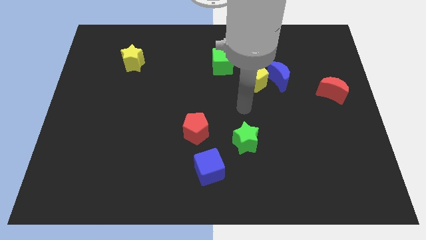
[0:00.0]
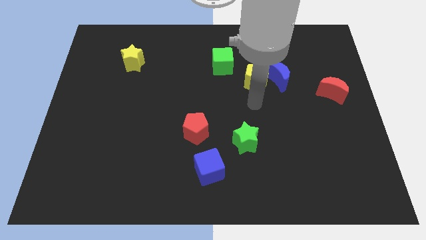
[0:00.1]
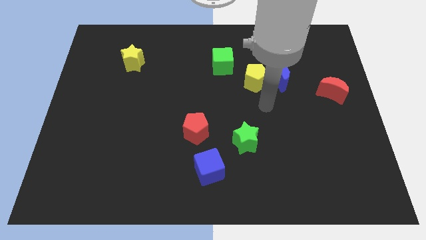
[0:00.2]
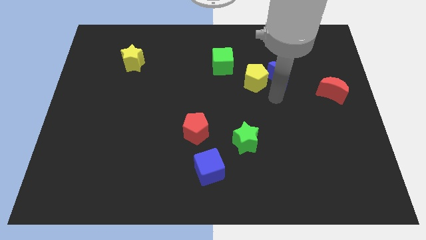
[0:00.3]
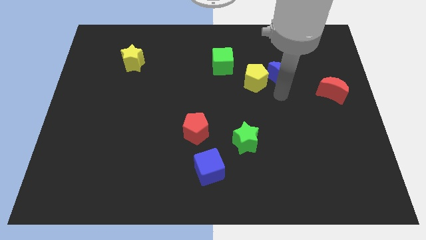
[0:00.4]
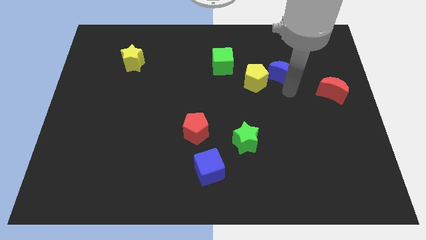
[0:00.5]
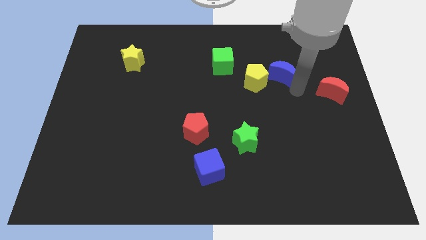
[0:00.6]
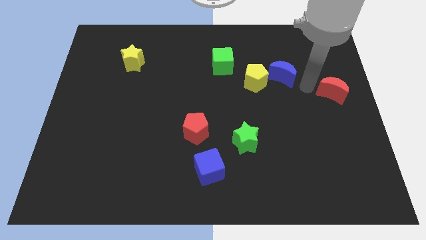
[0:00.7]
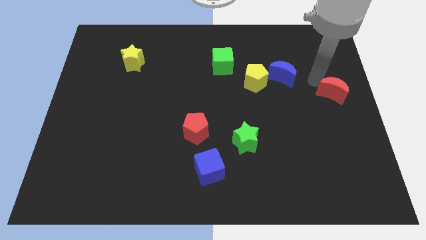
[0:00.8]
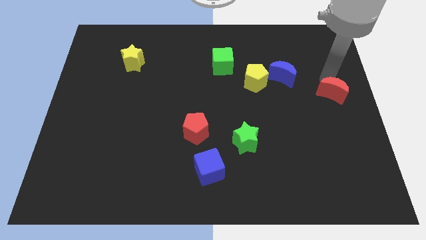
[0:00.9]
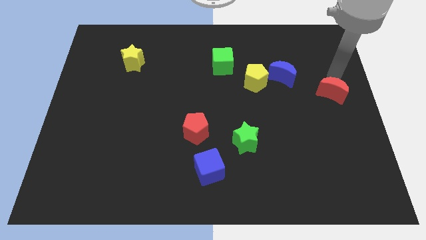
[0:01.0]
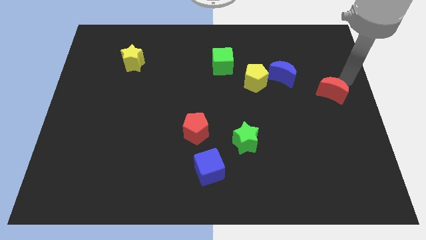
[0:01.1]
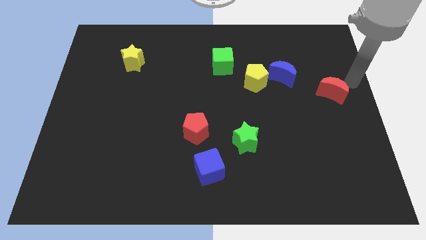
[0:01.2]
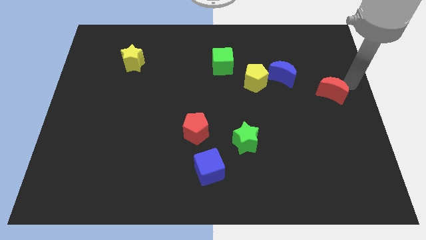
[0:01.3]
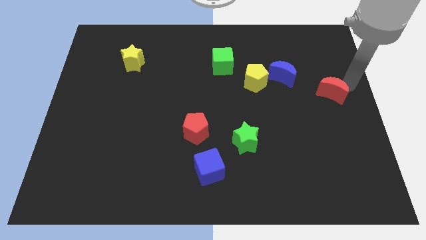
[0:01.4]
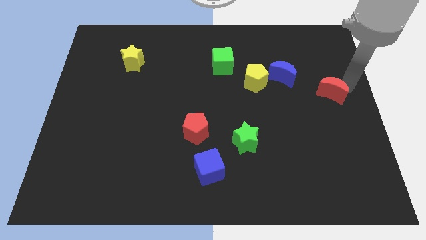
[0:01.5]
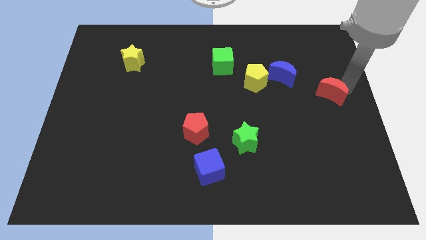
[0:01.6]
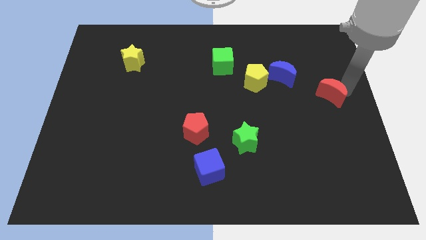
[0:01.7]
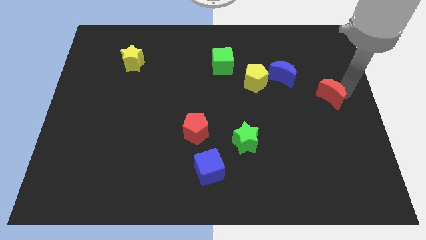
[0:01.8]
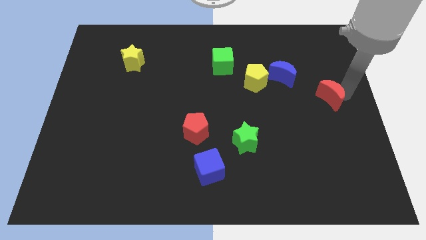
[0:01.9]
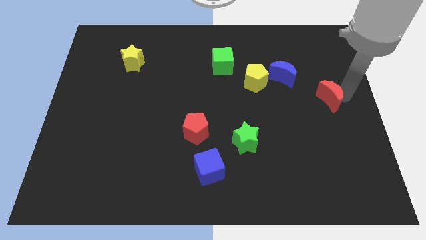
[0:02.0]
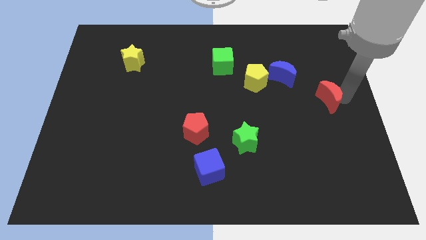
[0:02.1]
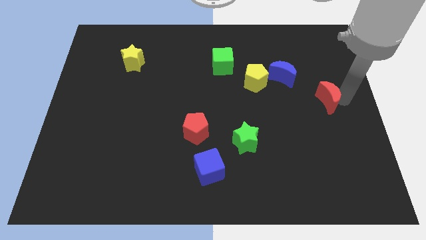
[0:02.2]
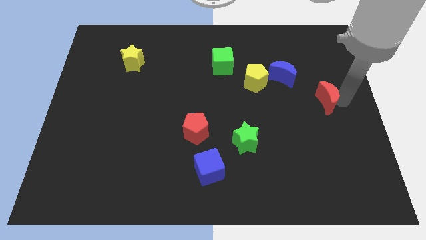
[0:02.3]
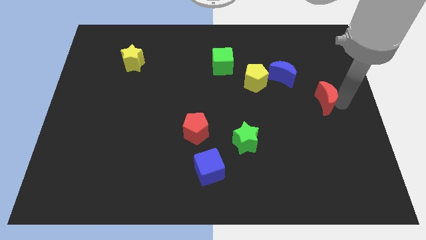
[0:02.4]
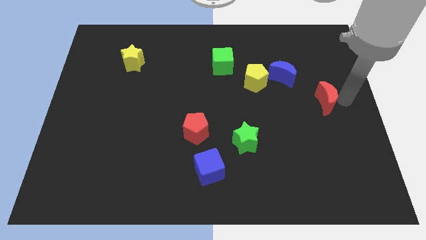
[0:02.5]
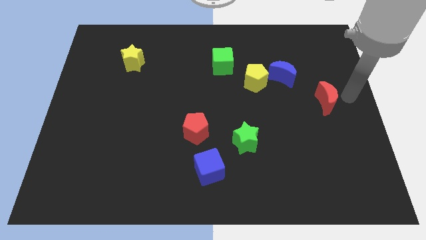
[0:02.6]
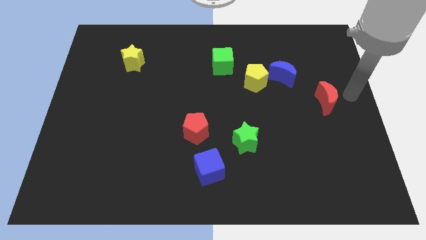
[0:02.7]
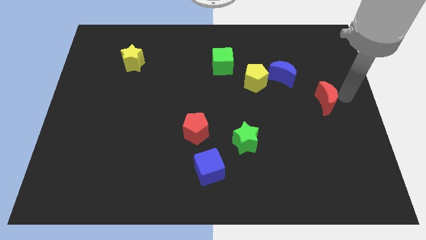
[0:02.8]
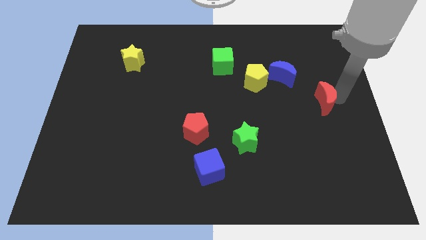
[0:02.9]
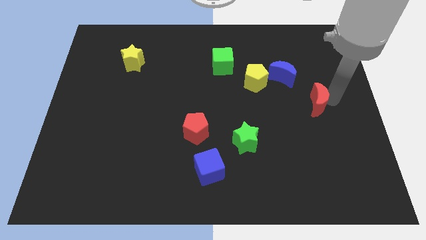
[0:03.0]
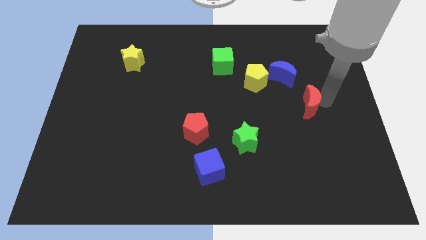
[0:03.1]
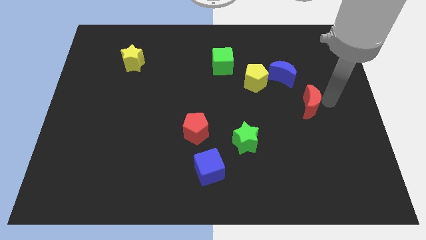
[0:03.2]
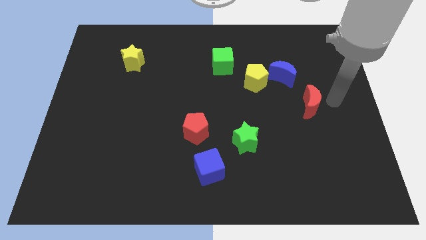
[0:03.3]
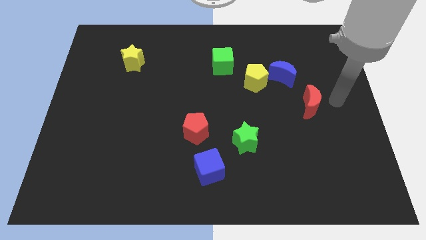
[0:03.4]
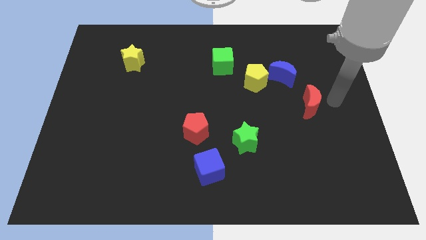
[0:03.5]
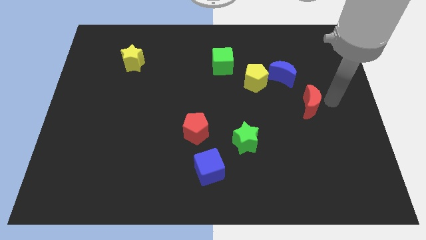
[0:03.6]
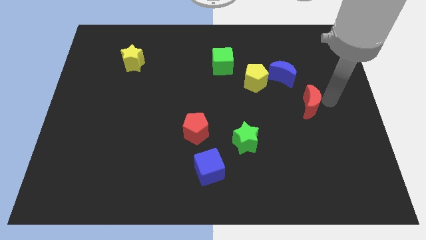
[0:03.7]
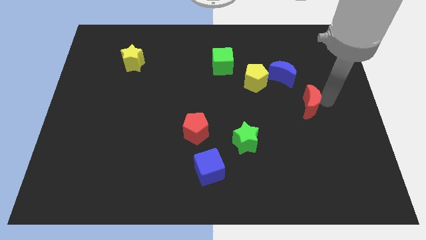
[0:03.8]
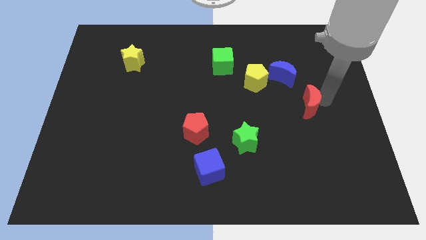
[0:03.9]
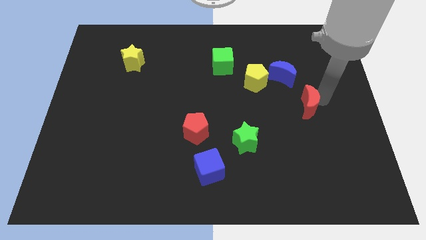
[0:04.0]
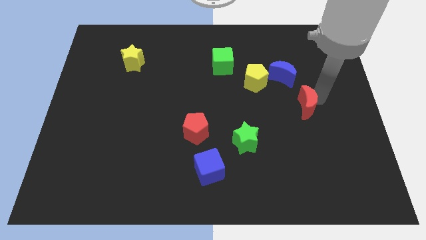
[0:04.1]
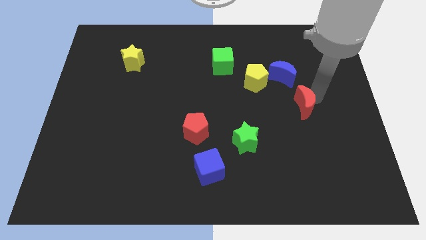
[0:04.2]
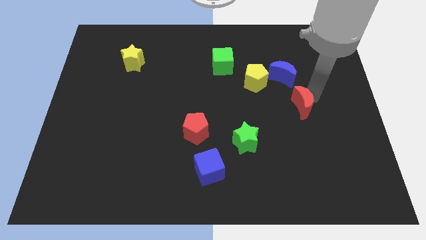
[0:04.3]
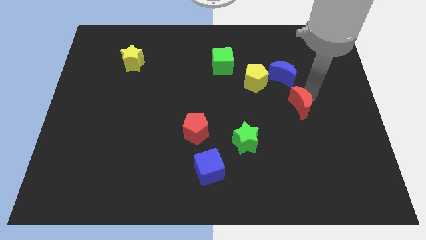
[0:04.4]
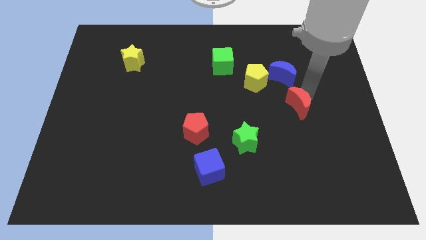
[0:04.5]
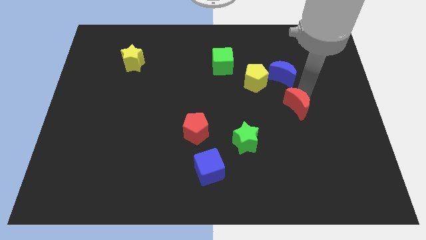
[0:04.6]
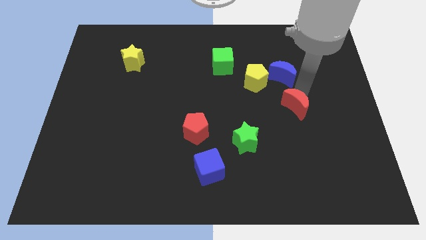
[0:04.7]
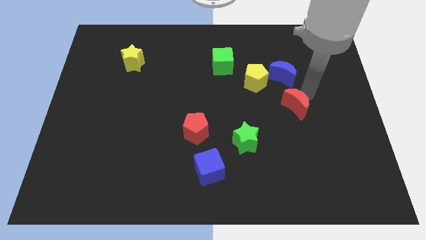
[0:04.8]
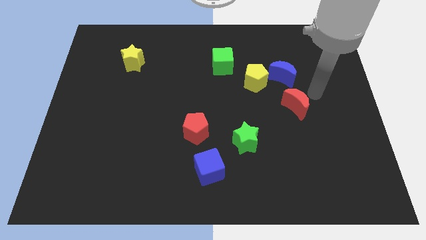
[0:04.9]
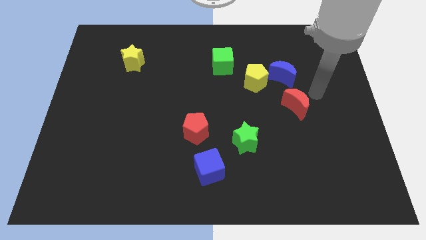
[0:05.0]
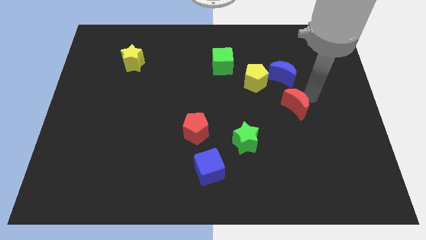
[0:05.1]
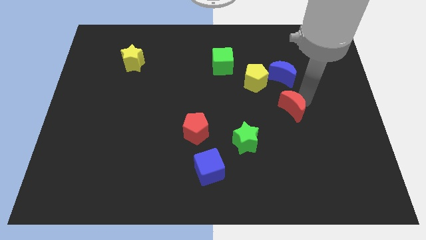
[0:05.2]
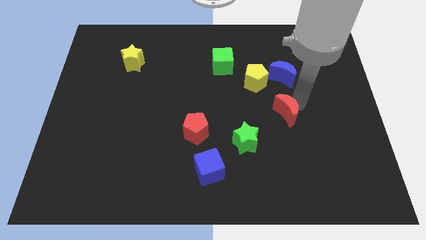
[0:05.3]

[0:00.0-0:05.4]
slide the red moon diagonally up and to the right of the green star

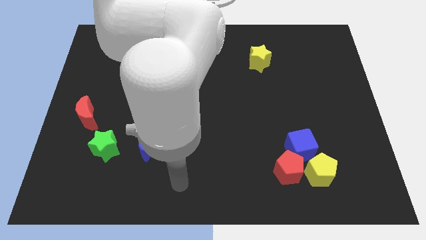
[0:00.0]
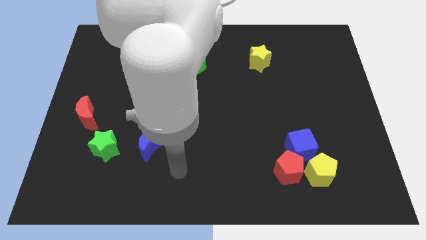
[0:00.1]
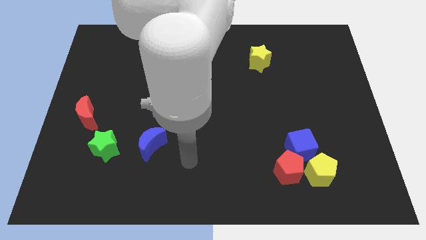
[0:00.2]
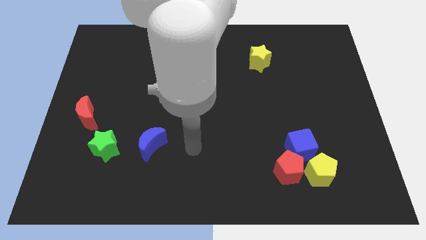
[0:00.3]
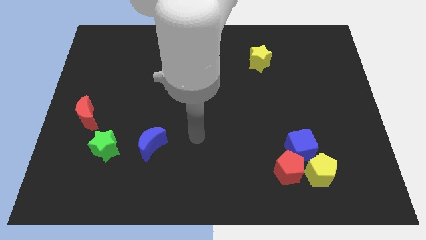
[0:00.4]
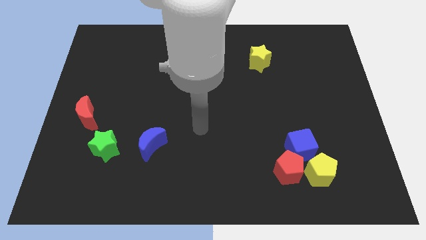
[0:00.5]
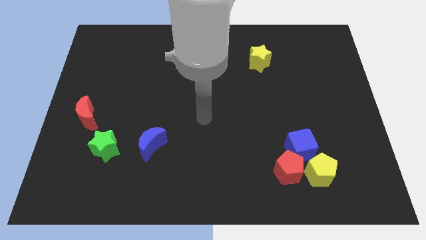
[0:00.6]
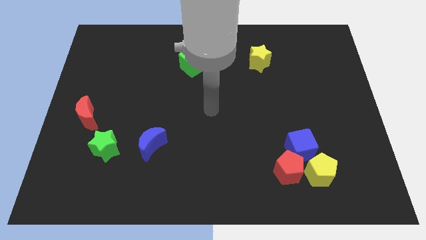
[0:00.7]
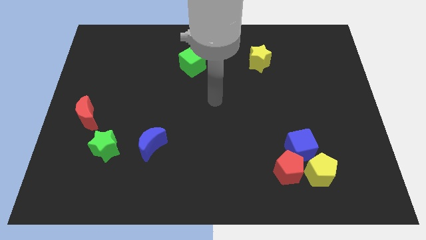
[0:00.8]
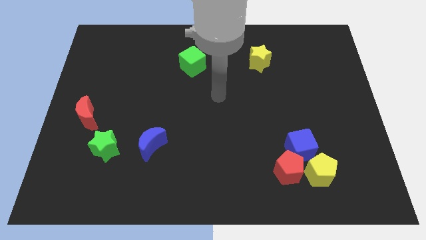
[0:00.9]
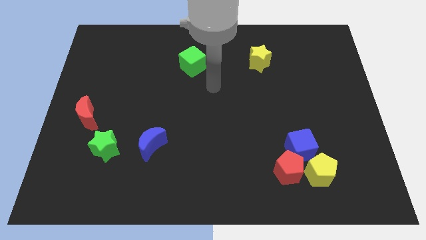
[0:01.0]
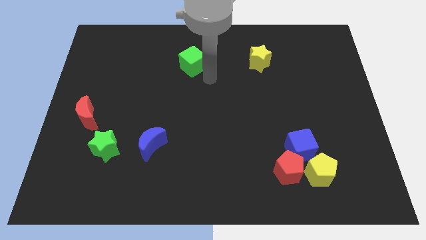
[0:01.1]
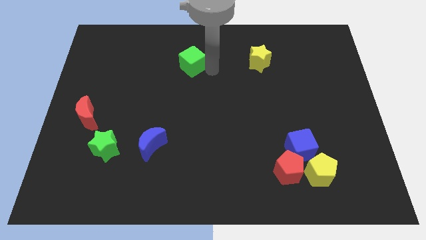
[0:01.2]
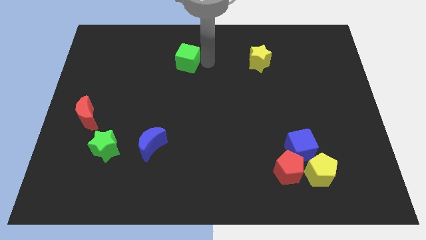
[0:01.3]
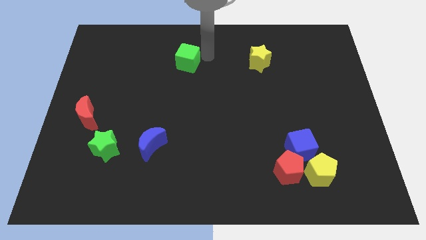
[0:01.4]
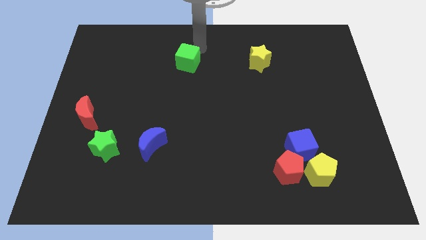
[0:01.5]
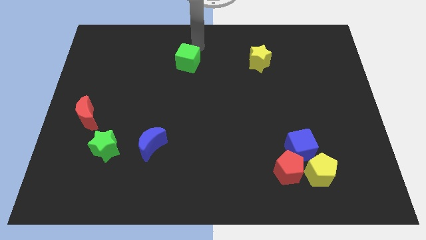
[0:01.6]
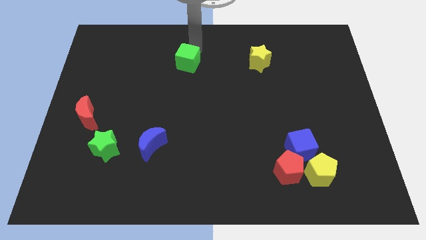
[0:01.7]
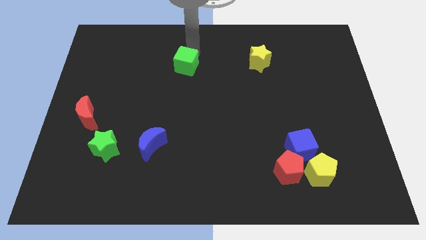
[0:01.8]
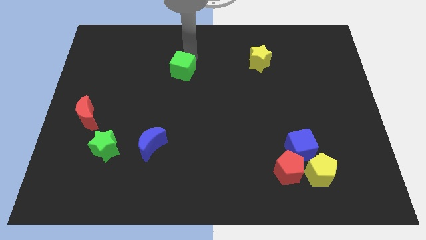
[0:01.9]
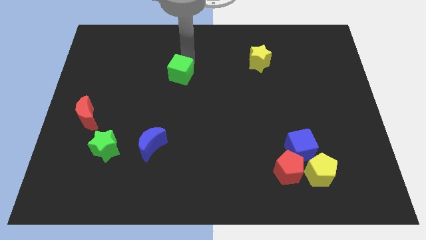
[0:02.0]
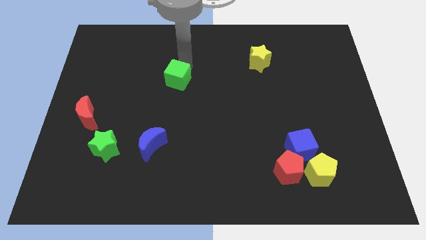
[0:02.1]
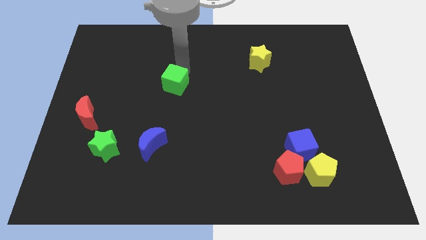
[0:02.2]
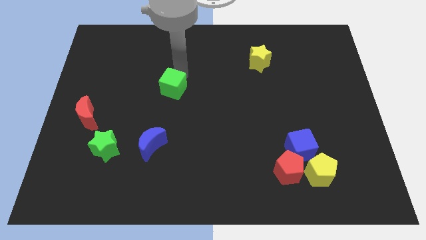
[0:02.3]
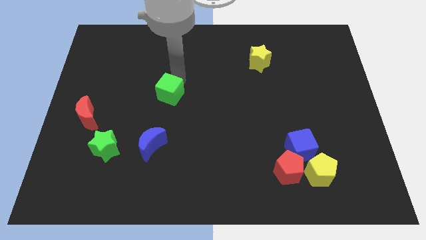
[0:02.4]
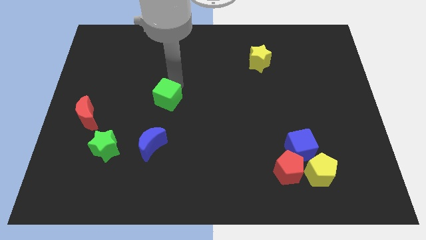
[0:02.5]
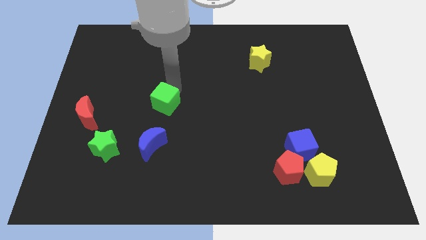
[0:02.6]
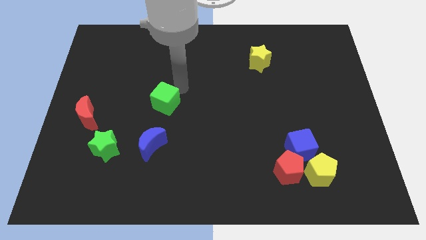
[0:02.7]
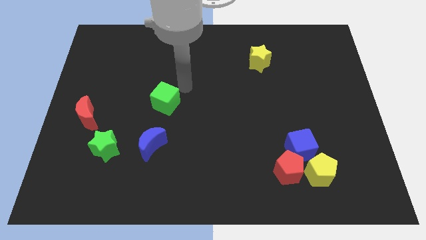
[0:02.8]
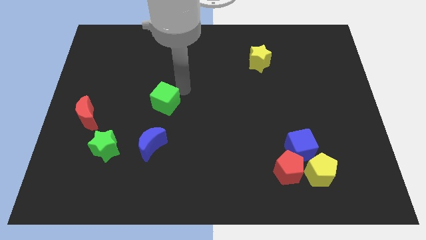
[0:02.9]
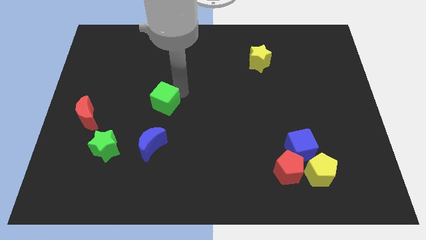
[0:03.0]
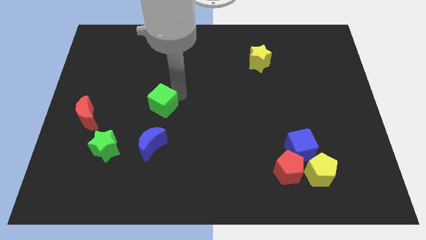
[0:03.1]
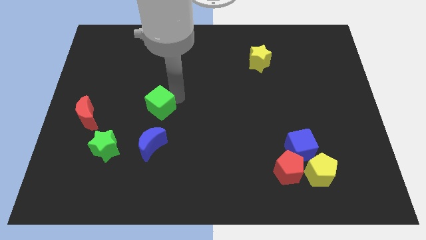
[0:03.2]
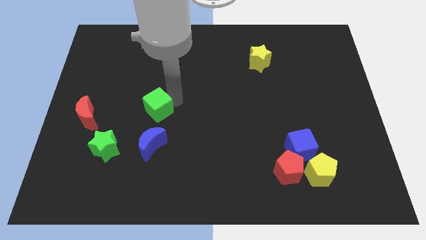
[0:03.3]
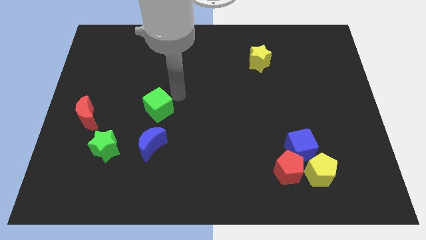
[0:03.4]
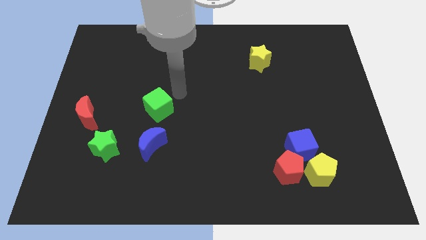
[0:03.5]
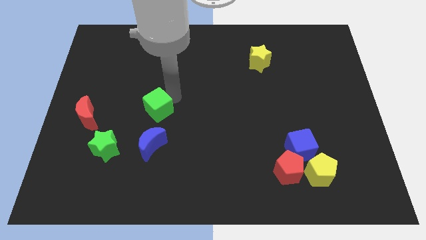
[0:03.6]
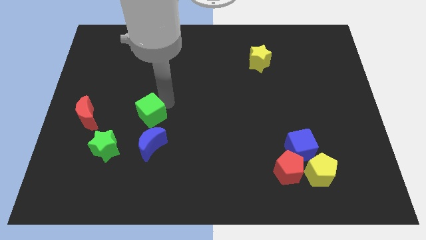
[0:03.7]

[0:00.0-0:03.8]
put the green cube diagonally up and to the right of the green star
